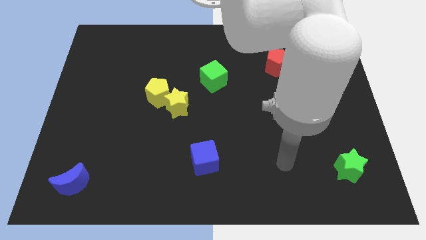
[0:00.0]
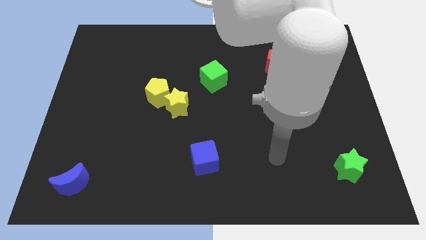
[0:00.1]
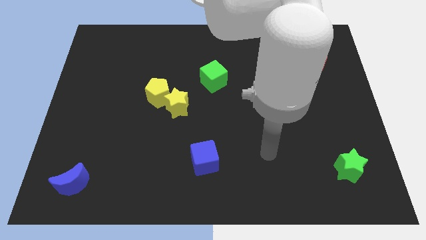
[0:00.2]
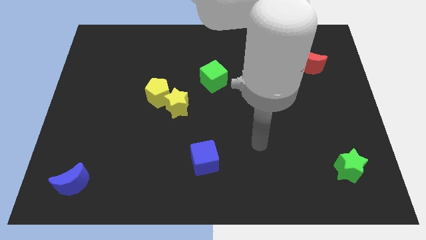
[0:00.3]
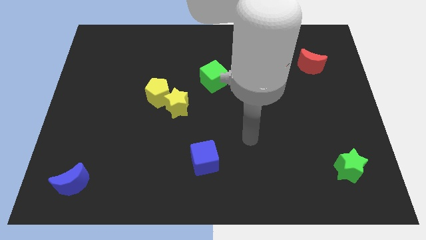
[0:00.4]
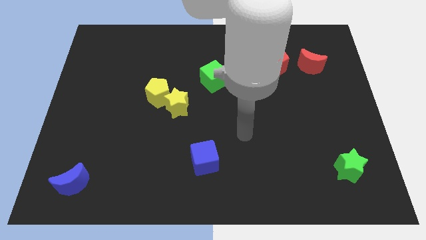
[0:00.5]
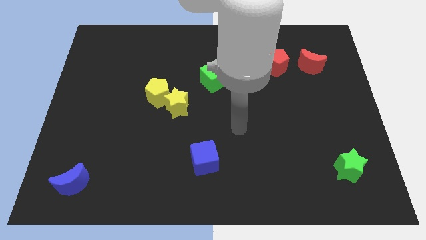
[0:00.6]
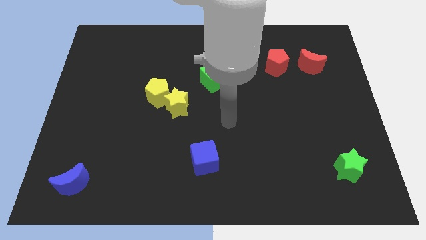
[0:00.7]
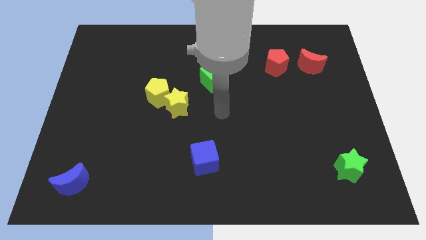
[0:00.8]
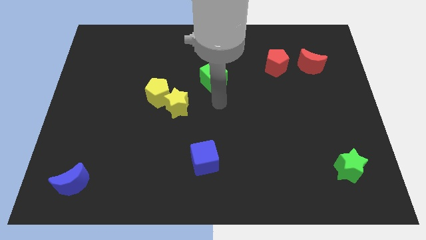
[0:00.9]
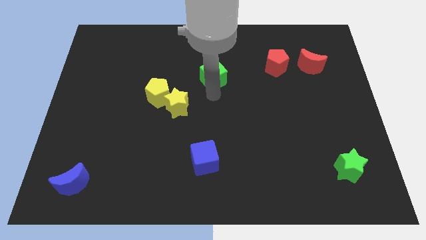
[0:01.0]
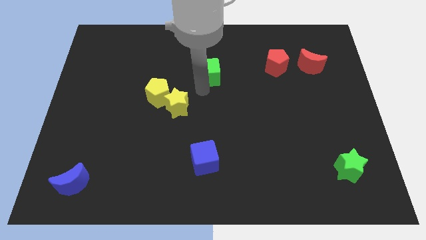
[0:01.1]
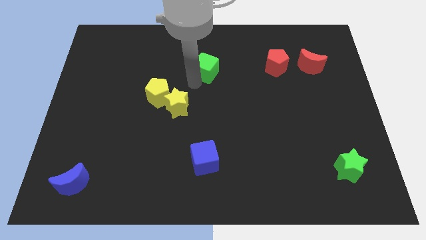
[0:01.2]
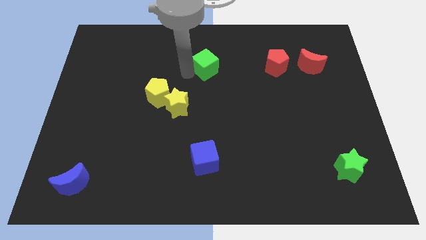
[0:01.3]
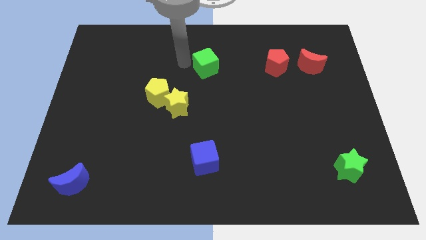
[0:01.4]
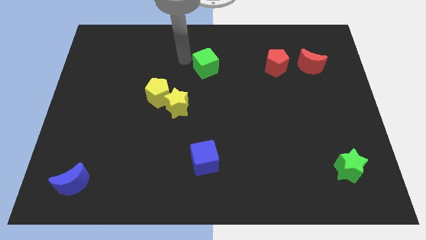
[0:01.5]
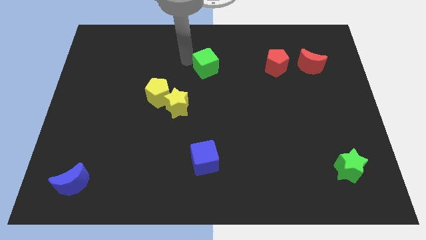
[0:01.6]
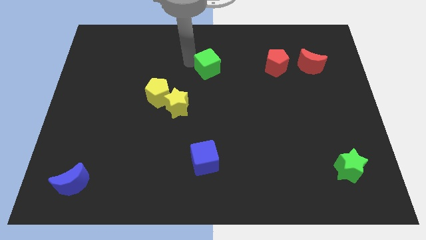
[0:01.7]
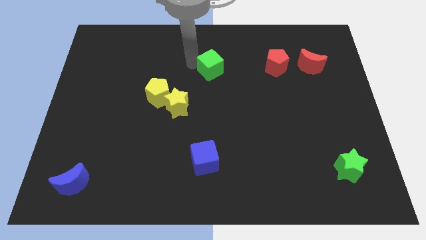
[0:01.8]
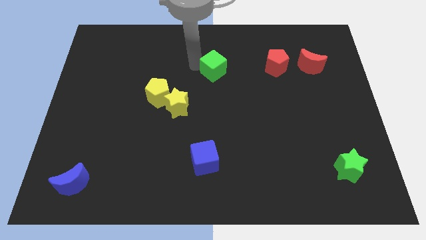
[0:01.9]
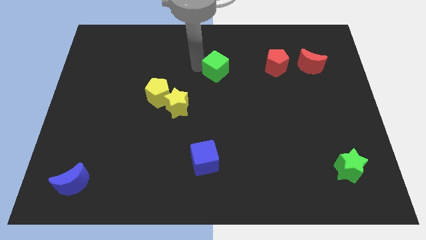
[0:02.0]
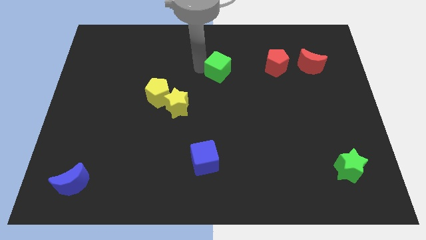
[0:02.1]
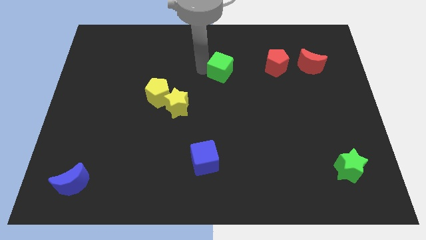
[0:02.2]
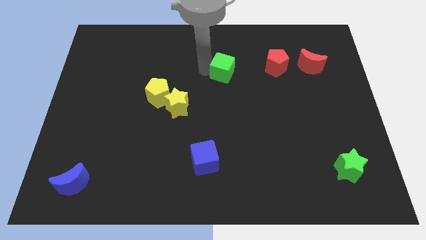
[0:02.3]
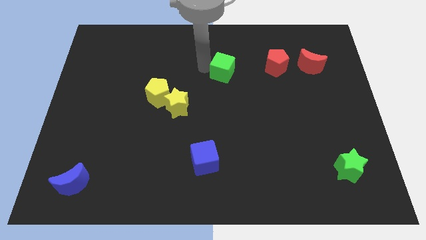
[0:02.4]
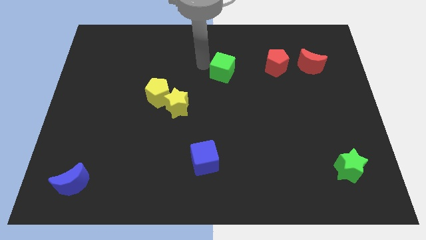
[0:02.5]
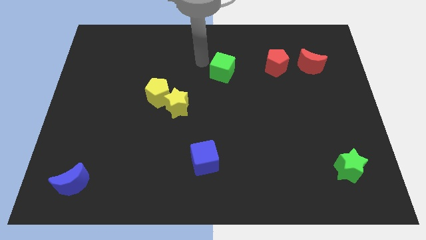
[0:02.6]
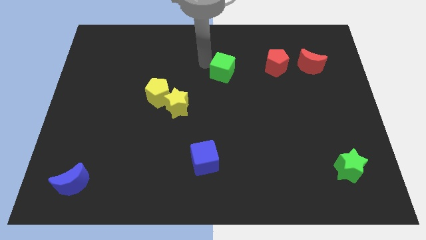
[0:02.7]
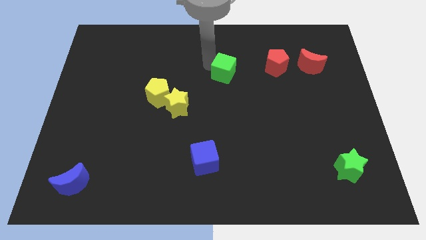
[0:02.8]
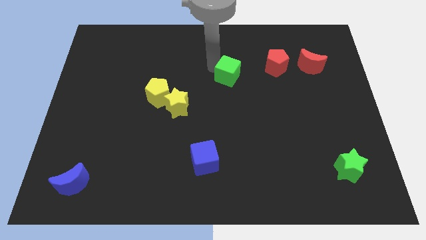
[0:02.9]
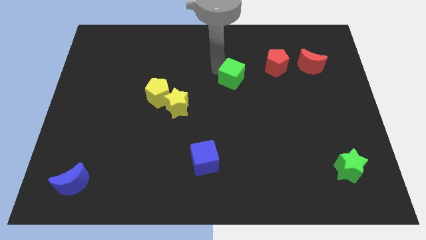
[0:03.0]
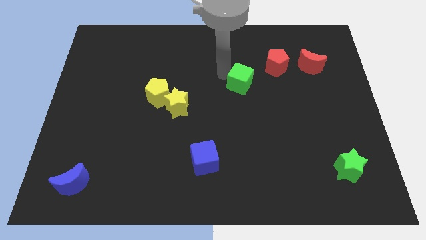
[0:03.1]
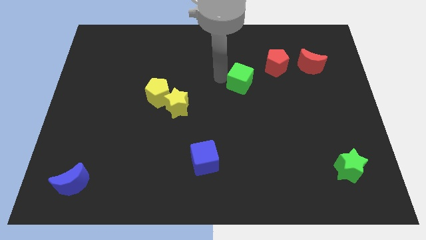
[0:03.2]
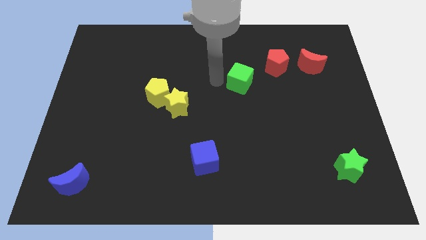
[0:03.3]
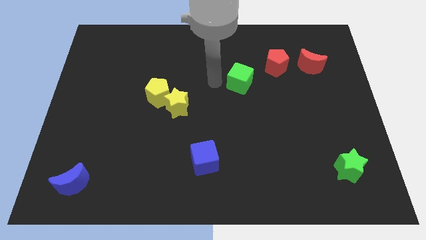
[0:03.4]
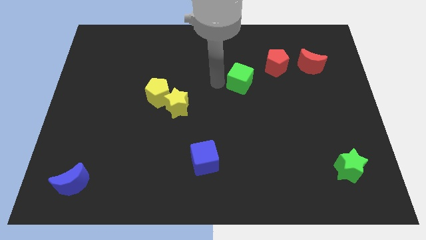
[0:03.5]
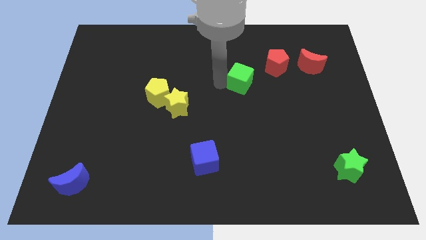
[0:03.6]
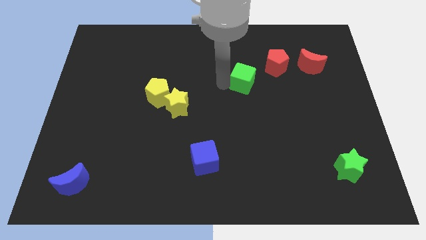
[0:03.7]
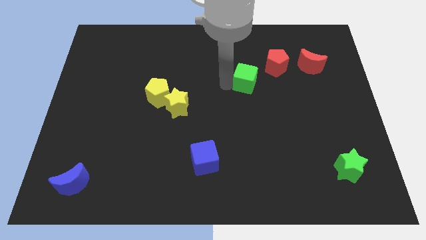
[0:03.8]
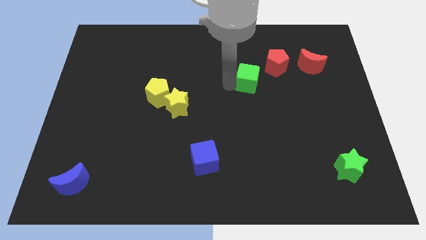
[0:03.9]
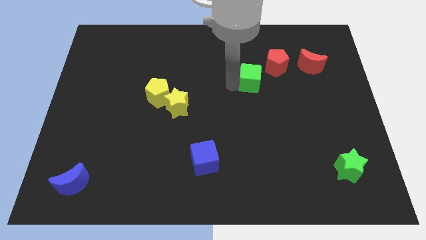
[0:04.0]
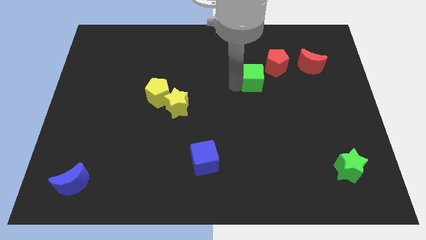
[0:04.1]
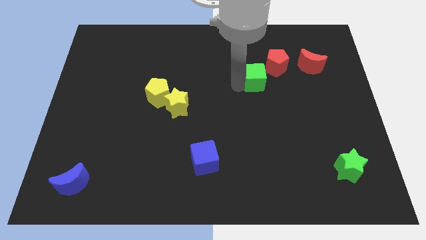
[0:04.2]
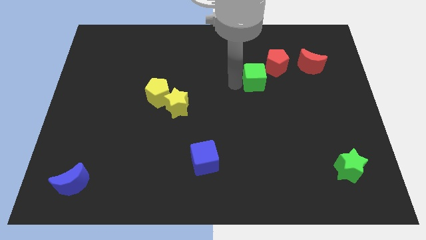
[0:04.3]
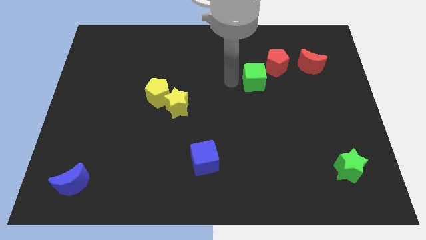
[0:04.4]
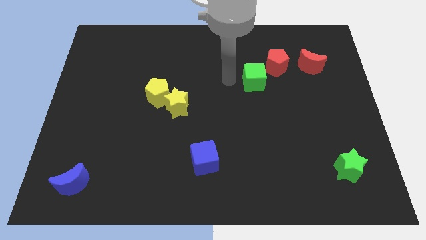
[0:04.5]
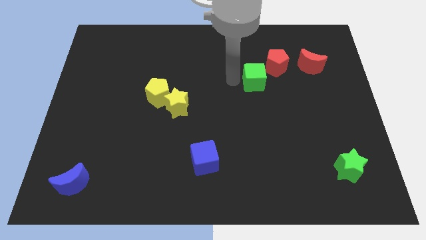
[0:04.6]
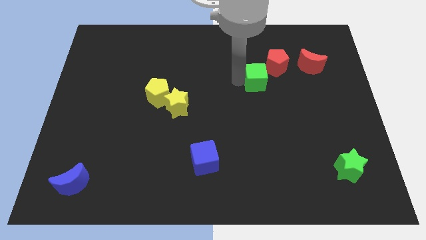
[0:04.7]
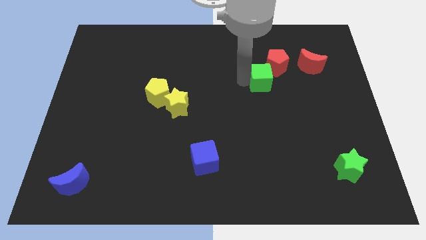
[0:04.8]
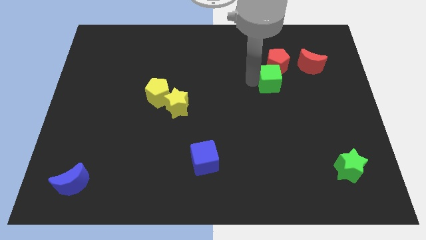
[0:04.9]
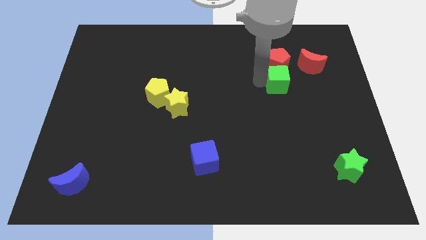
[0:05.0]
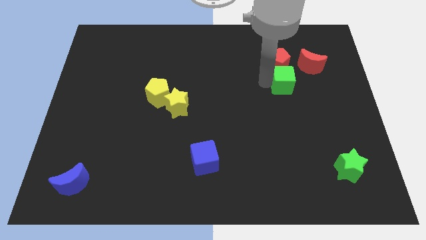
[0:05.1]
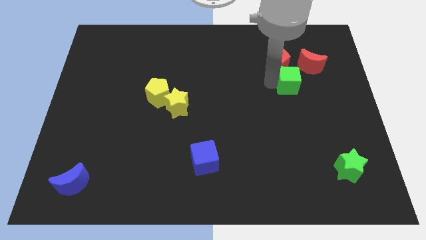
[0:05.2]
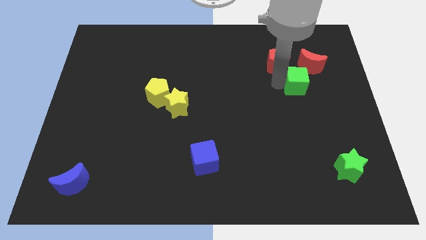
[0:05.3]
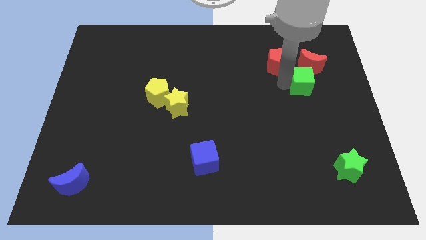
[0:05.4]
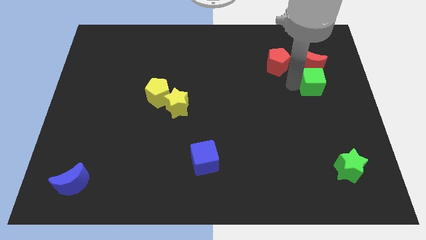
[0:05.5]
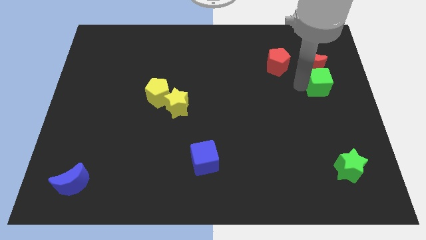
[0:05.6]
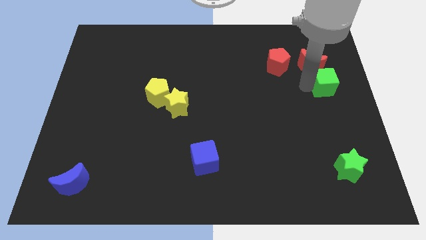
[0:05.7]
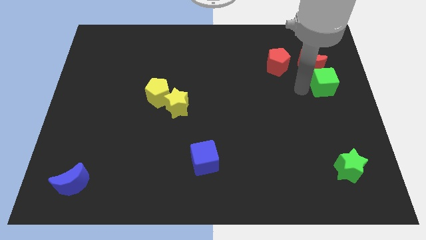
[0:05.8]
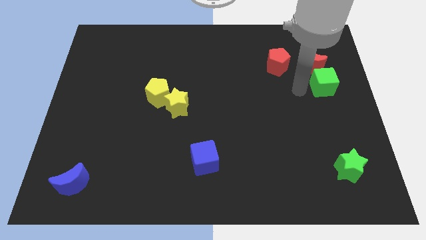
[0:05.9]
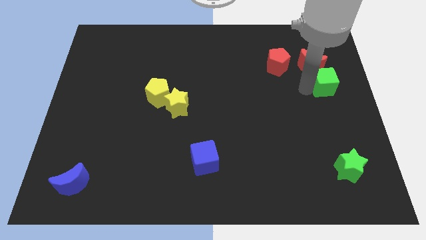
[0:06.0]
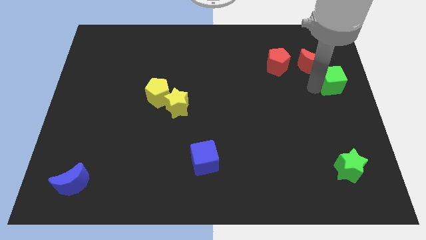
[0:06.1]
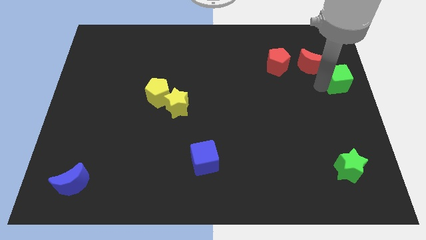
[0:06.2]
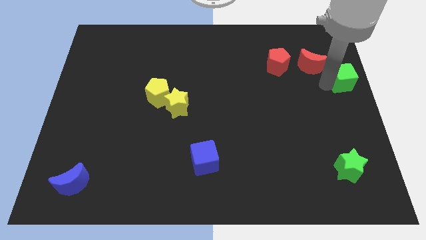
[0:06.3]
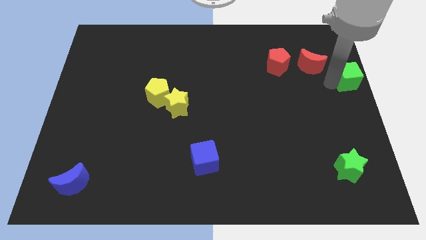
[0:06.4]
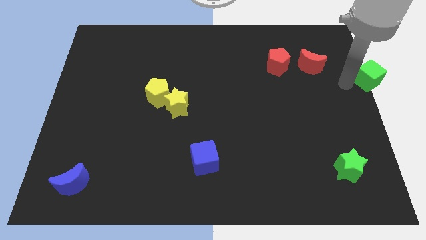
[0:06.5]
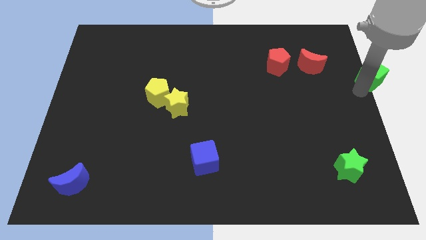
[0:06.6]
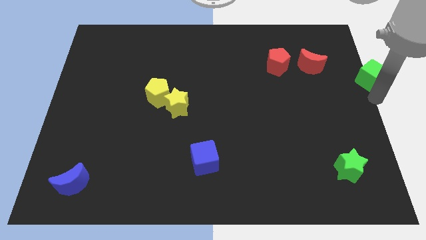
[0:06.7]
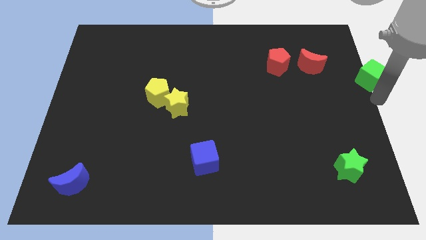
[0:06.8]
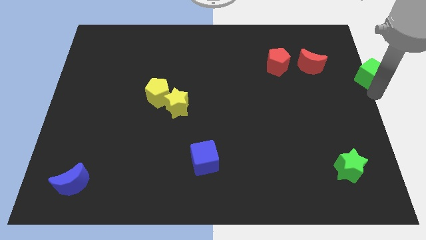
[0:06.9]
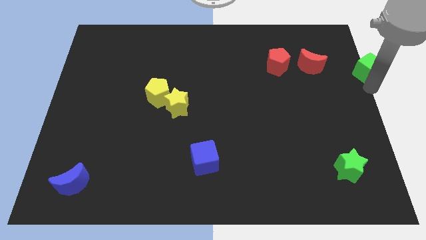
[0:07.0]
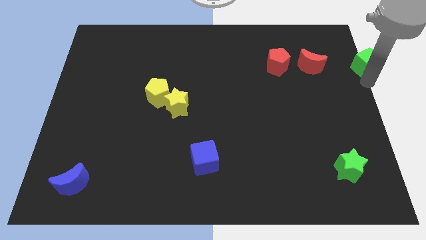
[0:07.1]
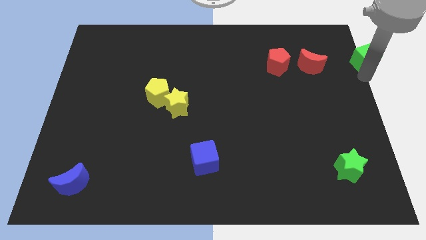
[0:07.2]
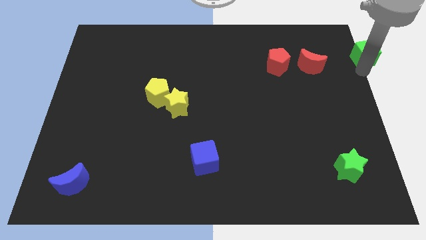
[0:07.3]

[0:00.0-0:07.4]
move the green cube to the top right
